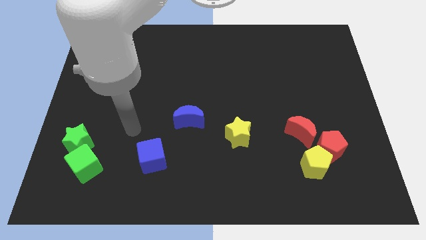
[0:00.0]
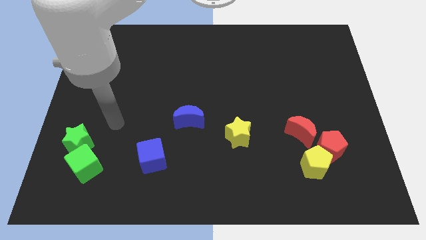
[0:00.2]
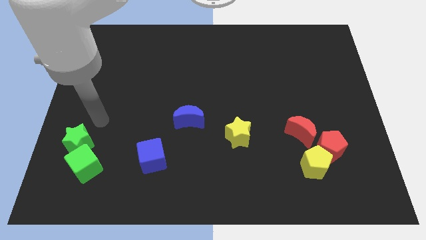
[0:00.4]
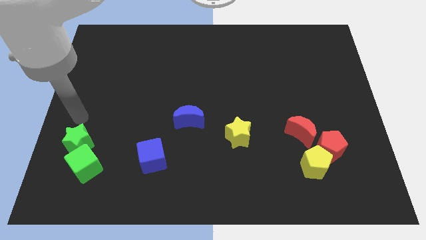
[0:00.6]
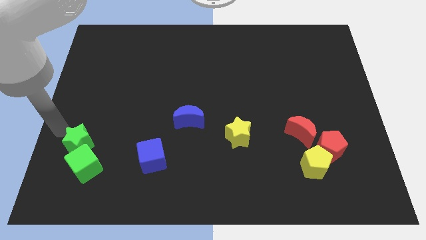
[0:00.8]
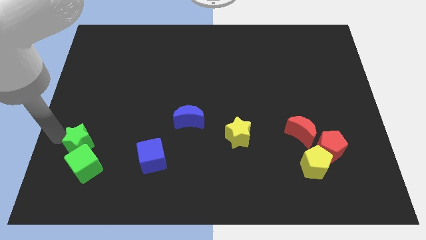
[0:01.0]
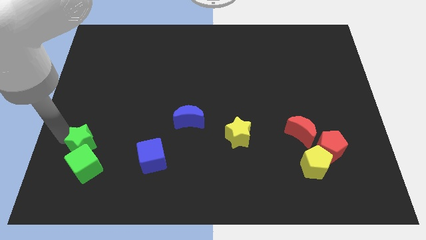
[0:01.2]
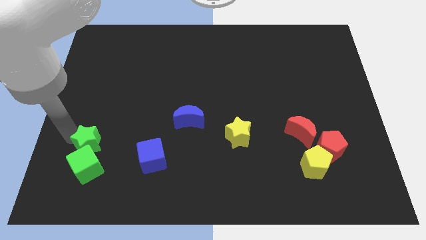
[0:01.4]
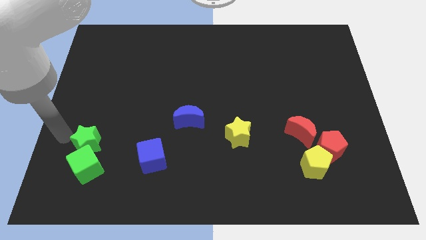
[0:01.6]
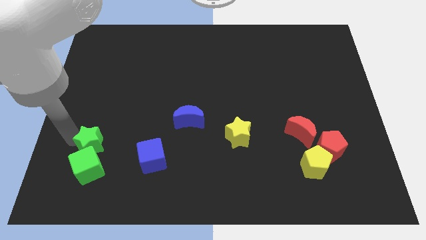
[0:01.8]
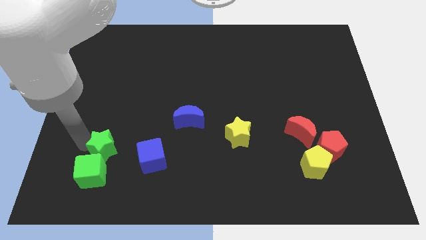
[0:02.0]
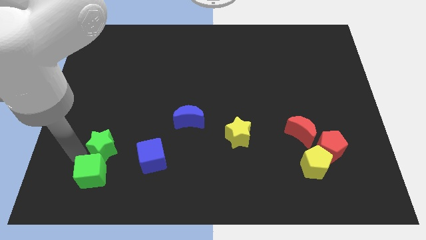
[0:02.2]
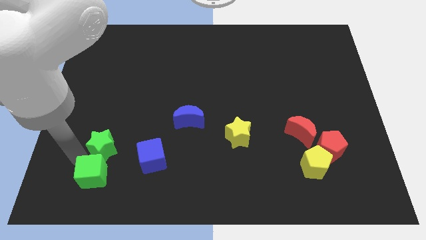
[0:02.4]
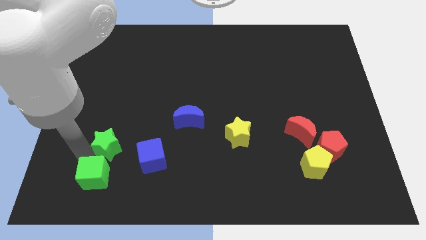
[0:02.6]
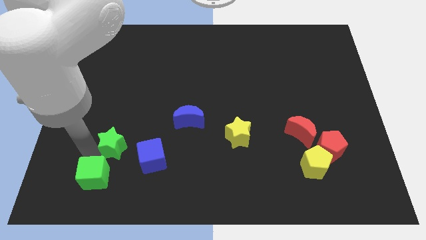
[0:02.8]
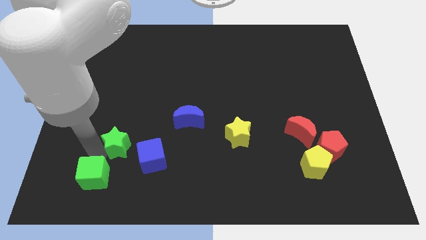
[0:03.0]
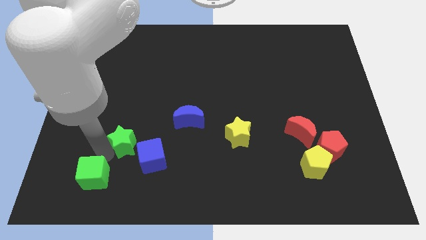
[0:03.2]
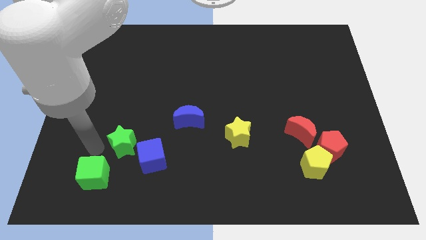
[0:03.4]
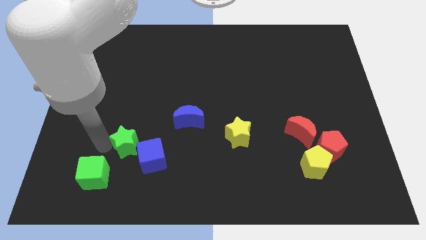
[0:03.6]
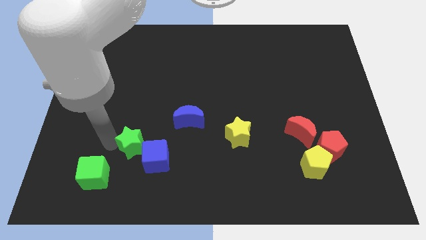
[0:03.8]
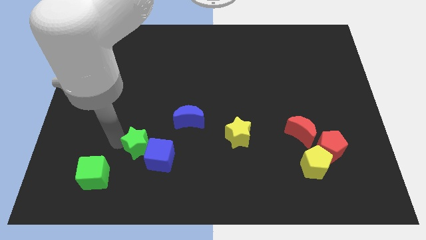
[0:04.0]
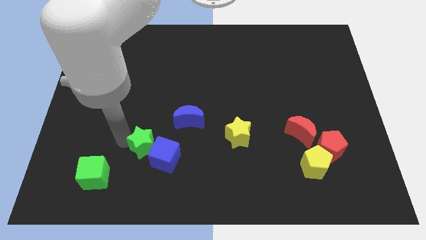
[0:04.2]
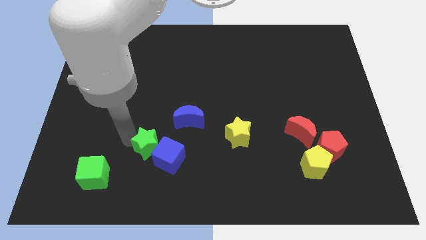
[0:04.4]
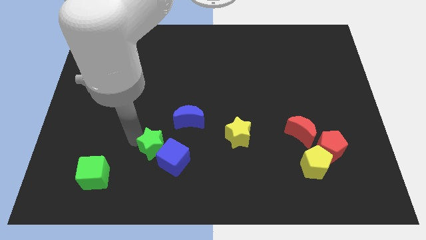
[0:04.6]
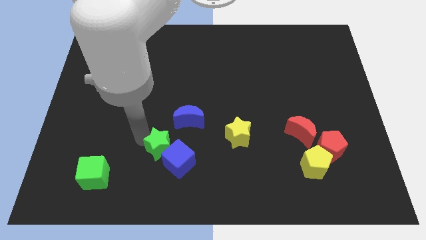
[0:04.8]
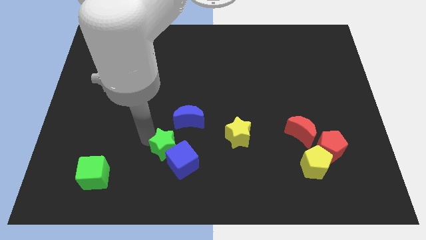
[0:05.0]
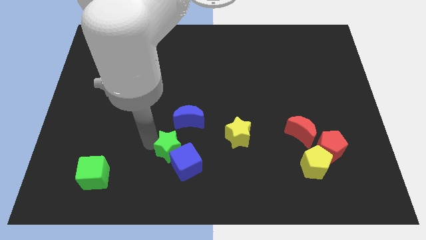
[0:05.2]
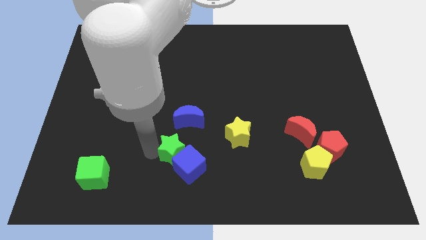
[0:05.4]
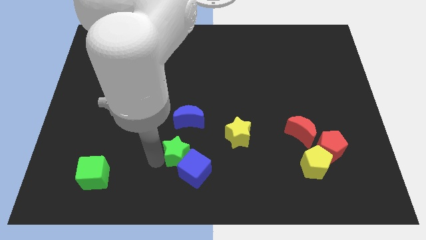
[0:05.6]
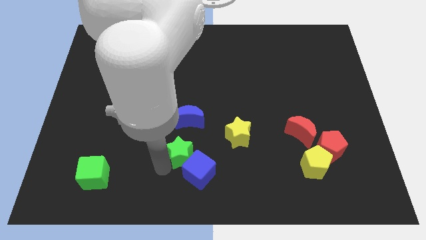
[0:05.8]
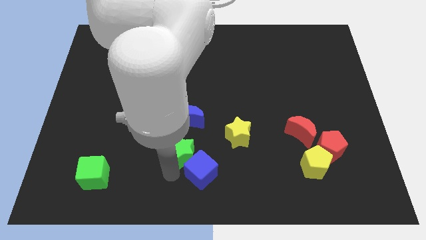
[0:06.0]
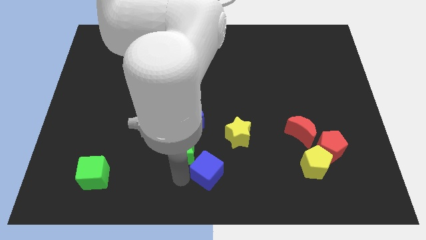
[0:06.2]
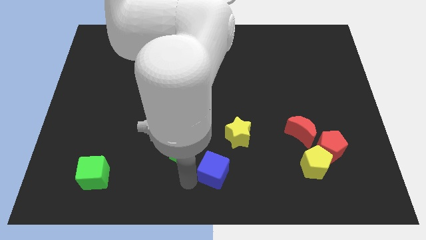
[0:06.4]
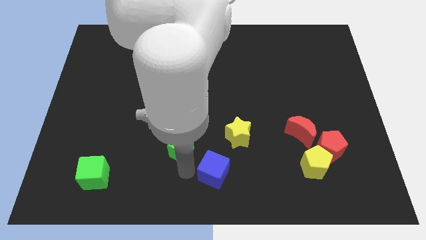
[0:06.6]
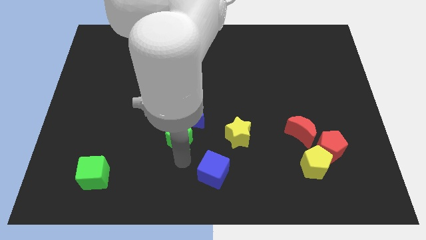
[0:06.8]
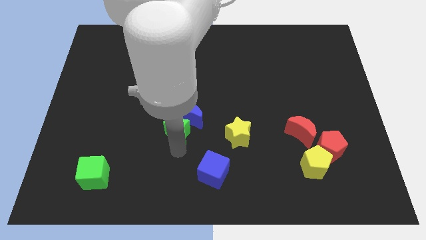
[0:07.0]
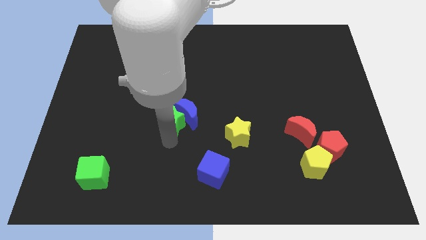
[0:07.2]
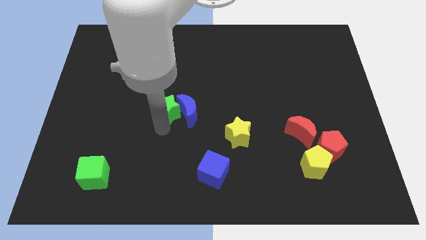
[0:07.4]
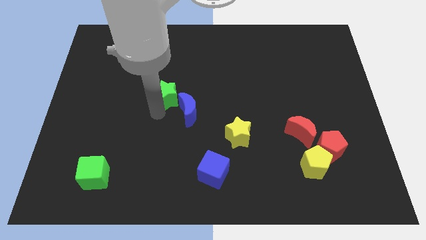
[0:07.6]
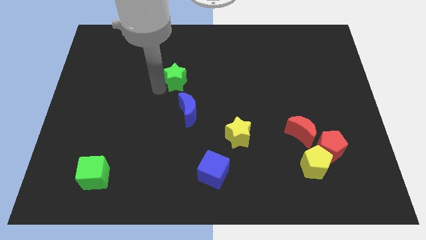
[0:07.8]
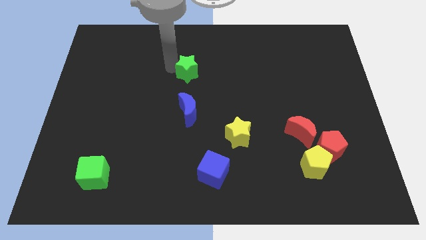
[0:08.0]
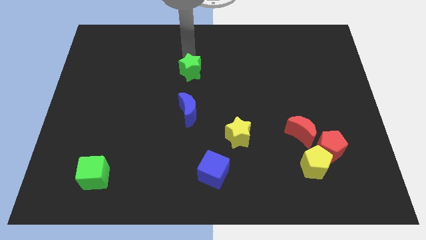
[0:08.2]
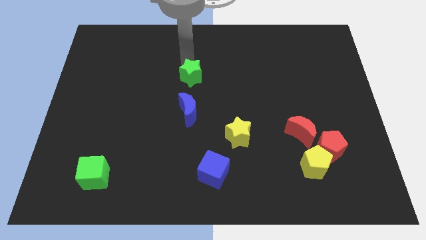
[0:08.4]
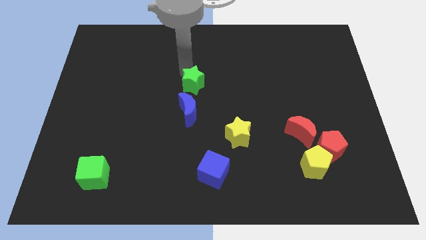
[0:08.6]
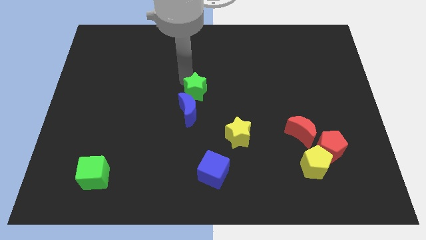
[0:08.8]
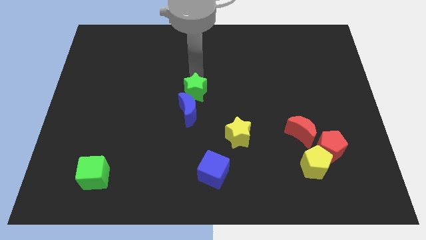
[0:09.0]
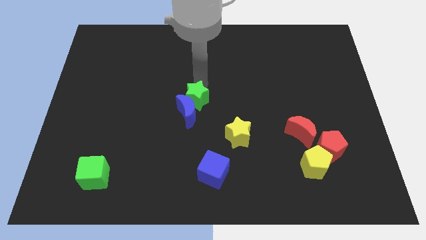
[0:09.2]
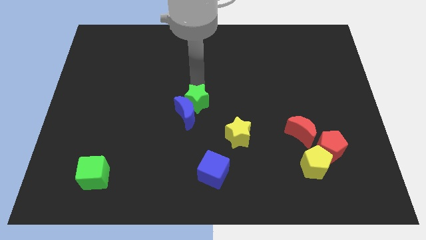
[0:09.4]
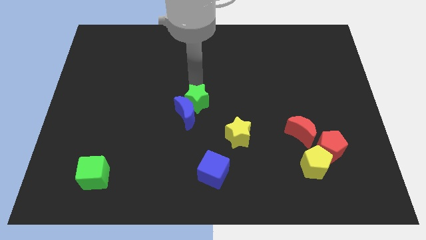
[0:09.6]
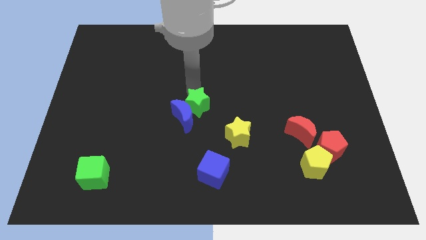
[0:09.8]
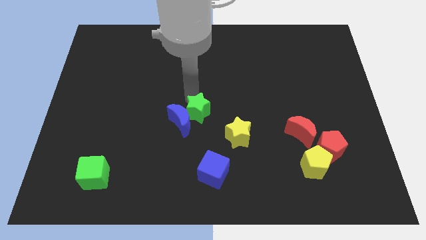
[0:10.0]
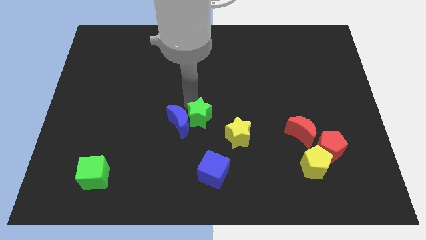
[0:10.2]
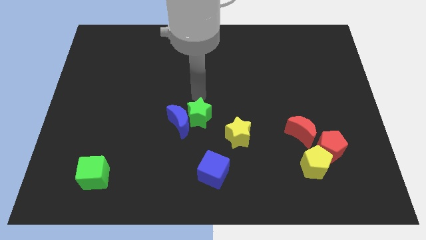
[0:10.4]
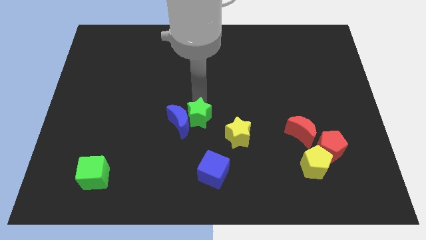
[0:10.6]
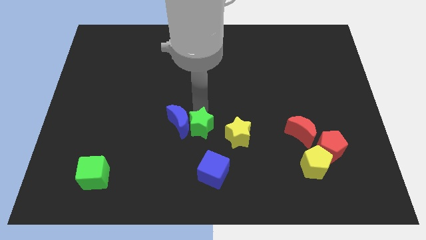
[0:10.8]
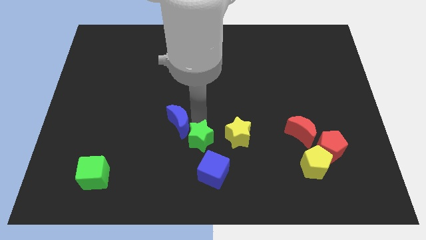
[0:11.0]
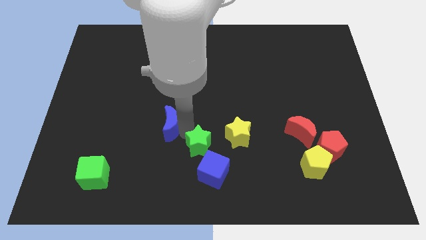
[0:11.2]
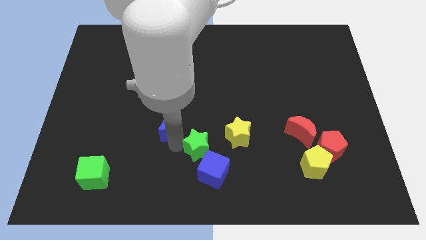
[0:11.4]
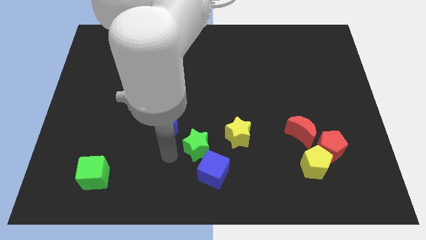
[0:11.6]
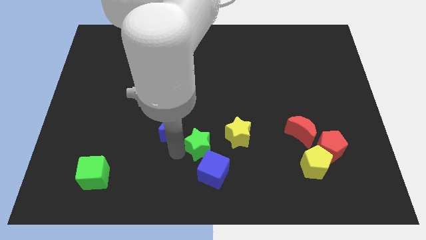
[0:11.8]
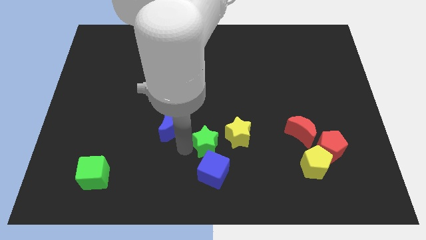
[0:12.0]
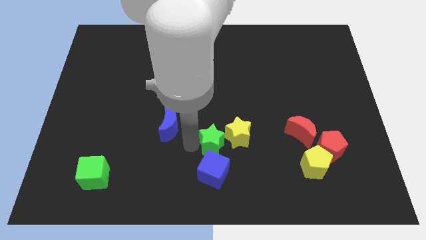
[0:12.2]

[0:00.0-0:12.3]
move the green star close to the yellow star

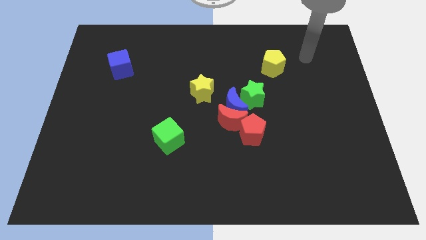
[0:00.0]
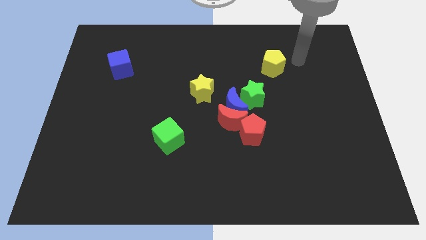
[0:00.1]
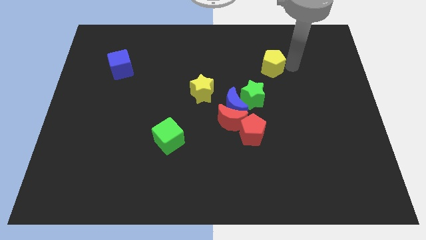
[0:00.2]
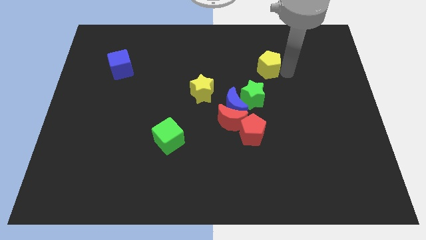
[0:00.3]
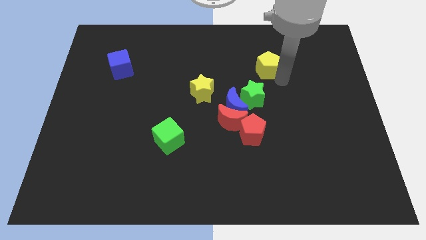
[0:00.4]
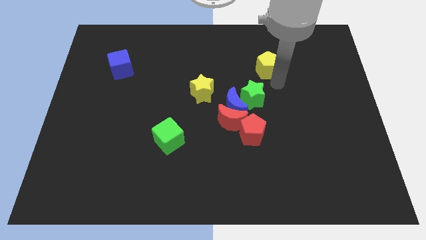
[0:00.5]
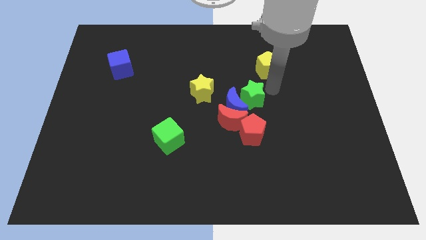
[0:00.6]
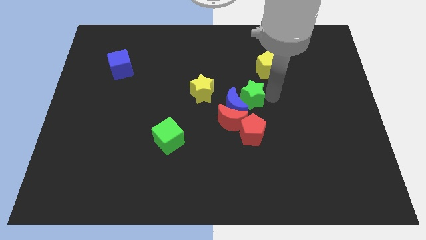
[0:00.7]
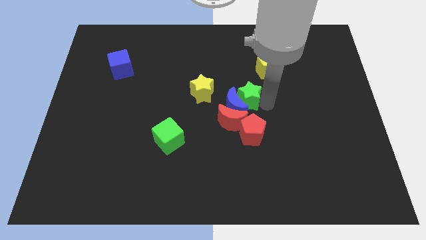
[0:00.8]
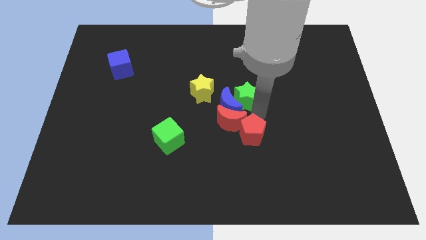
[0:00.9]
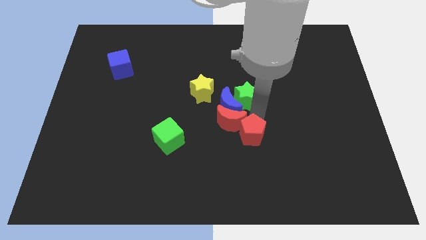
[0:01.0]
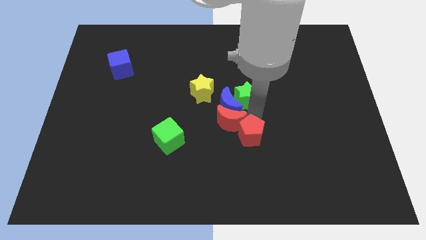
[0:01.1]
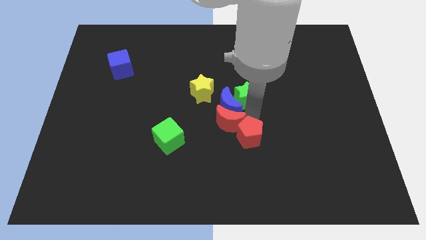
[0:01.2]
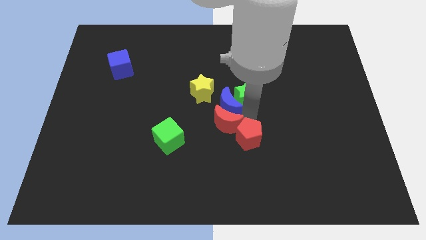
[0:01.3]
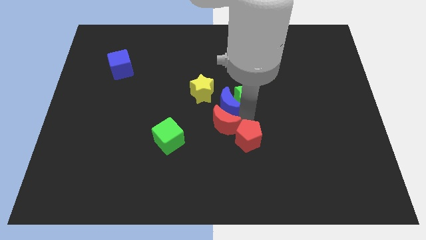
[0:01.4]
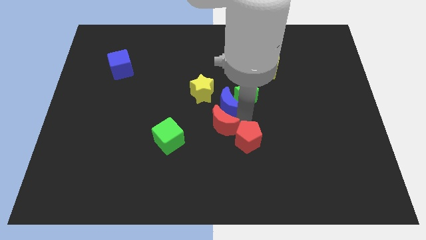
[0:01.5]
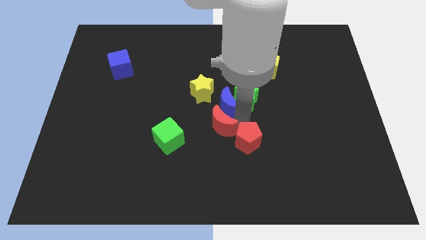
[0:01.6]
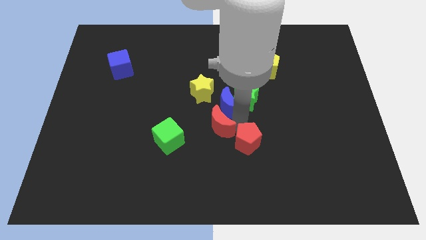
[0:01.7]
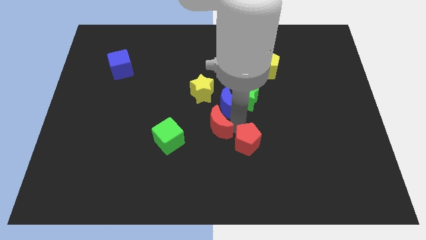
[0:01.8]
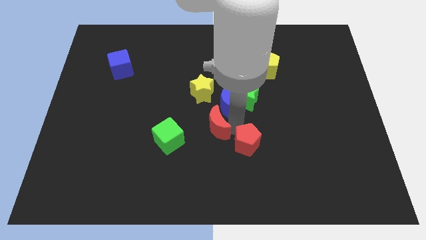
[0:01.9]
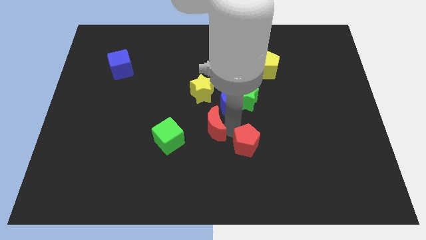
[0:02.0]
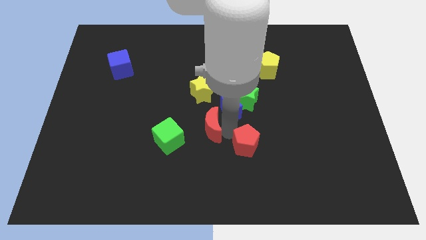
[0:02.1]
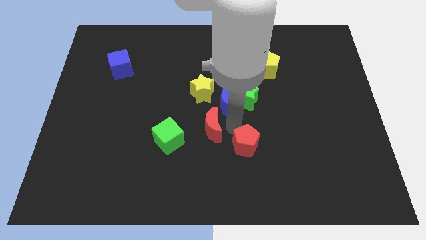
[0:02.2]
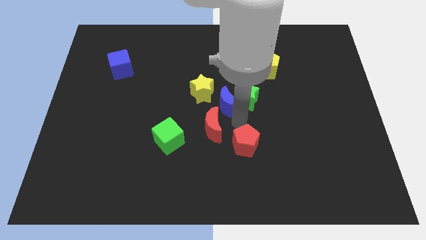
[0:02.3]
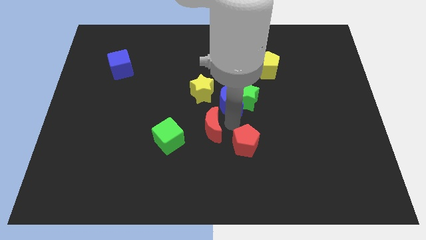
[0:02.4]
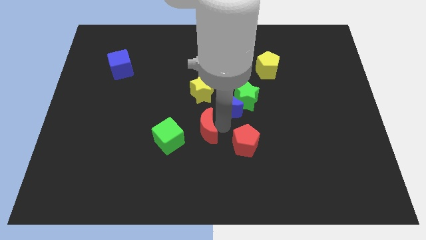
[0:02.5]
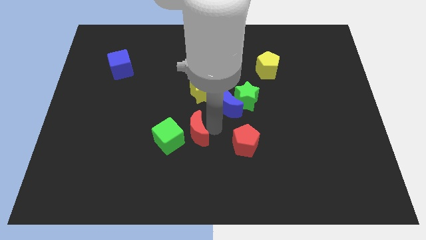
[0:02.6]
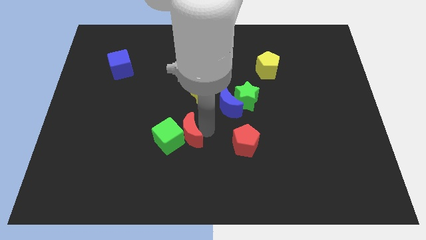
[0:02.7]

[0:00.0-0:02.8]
push the red moon close to the green cube
